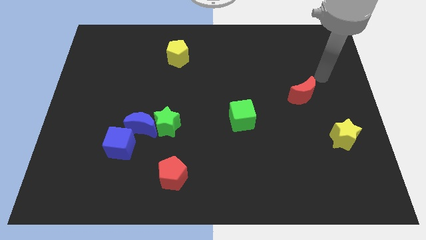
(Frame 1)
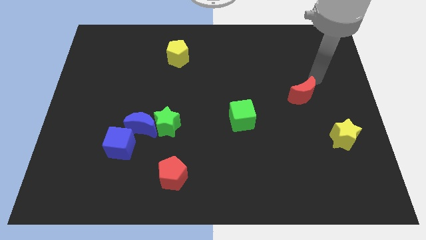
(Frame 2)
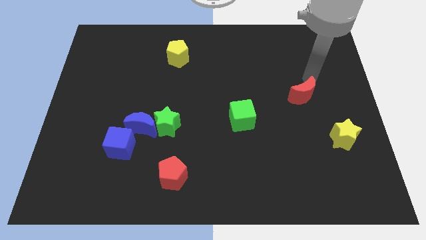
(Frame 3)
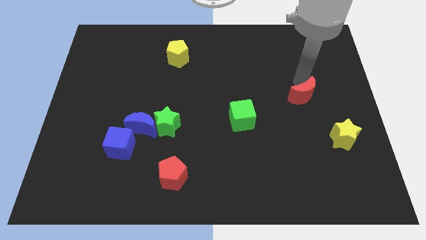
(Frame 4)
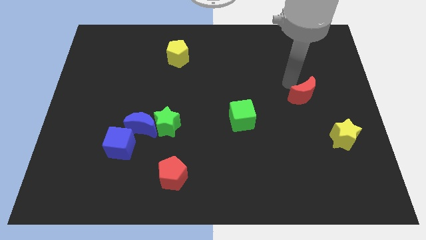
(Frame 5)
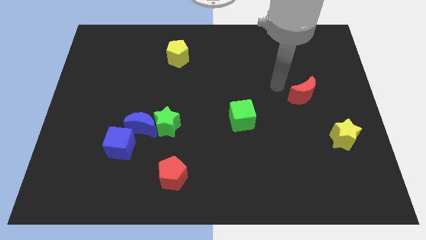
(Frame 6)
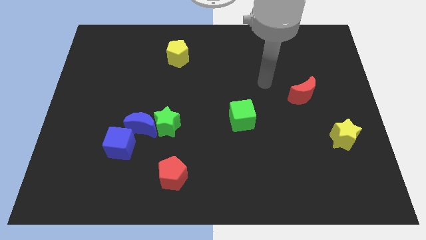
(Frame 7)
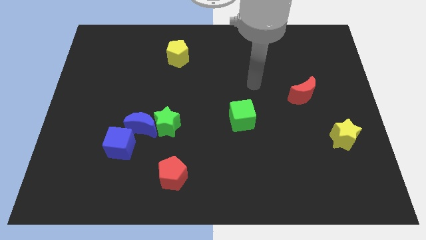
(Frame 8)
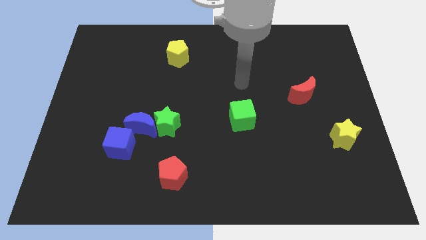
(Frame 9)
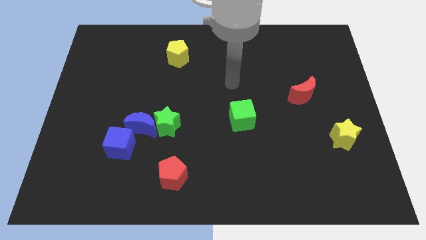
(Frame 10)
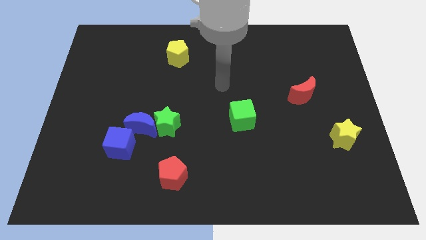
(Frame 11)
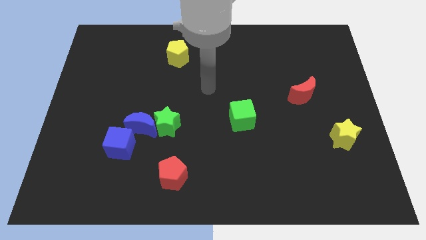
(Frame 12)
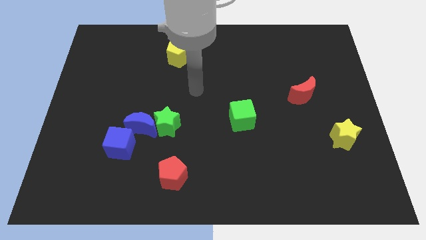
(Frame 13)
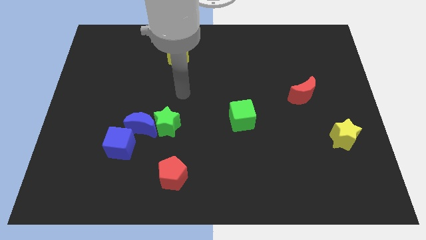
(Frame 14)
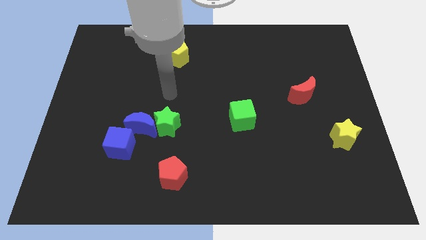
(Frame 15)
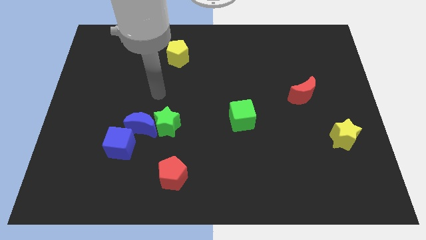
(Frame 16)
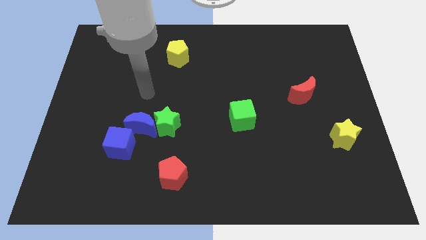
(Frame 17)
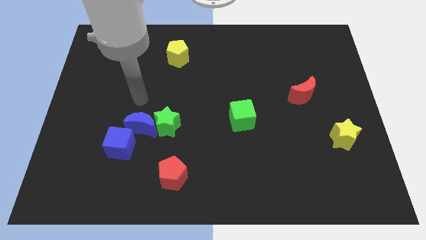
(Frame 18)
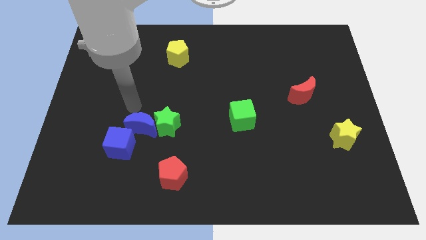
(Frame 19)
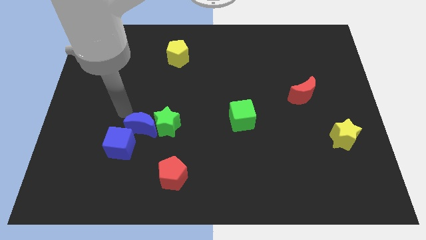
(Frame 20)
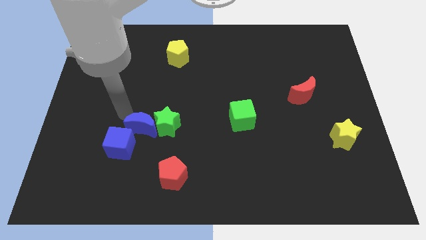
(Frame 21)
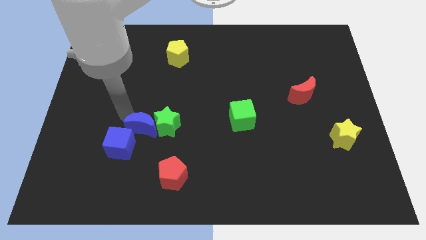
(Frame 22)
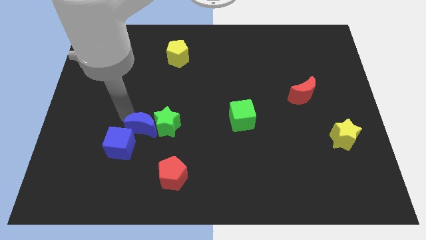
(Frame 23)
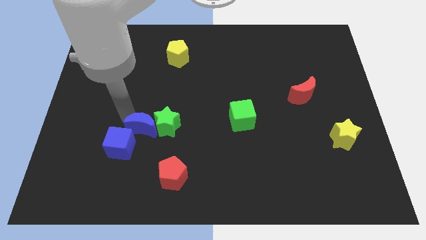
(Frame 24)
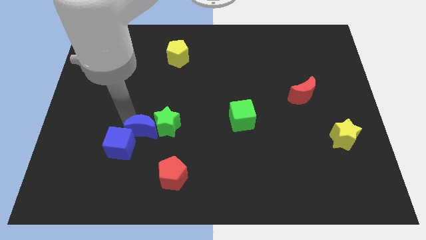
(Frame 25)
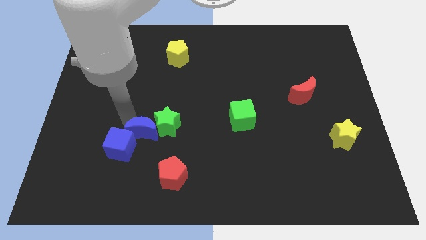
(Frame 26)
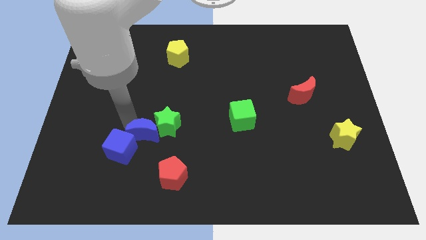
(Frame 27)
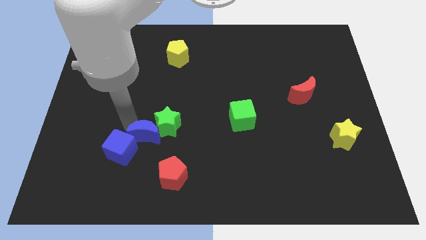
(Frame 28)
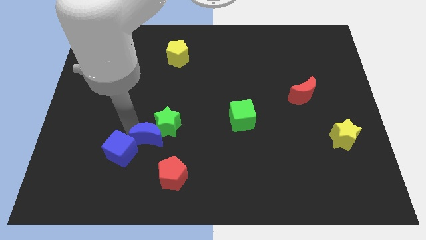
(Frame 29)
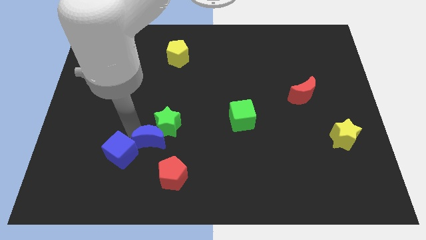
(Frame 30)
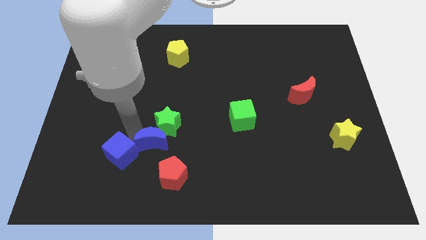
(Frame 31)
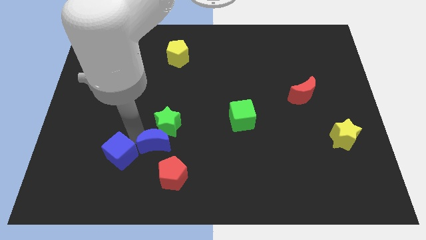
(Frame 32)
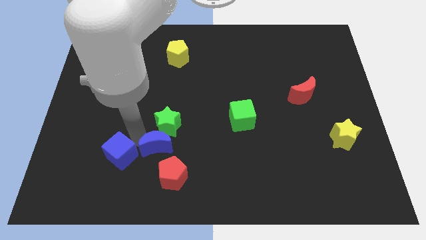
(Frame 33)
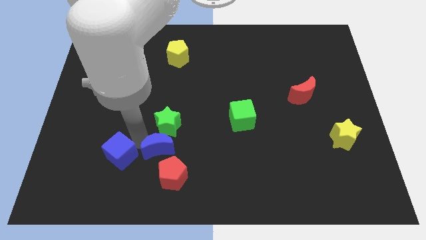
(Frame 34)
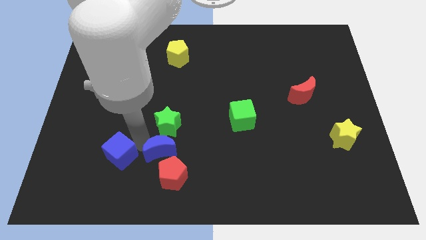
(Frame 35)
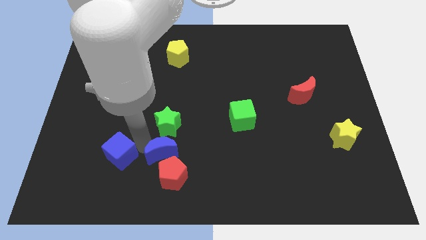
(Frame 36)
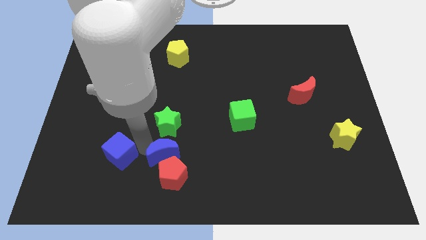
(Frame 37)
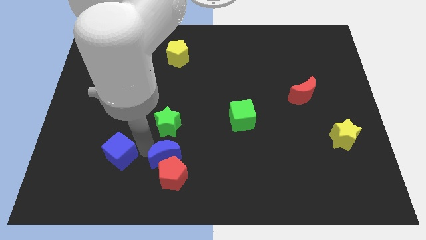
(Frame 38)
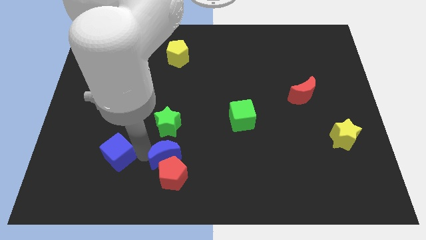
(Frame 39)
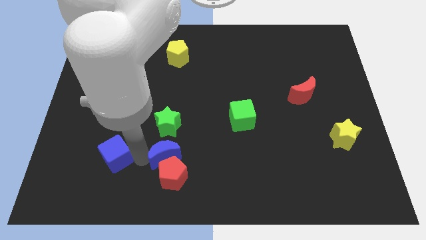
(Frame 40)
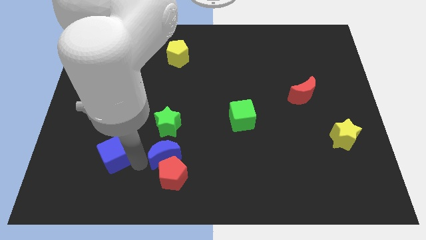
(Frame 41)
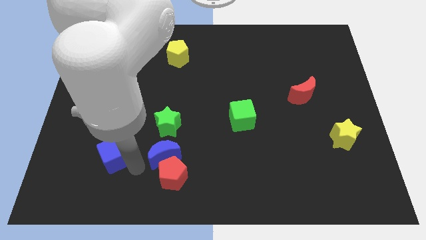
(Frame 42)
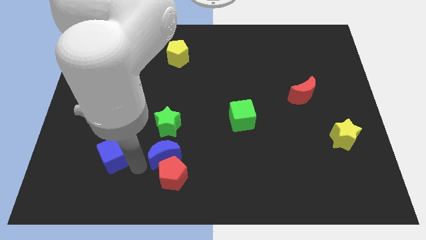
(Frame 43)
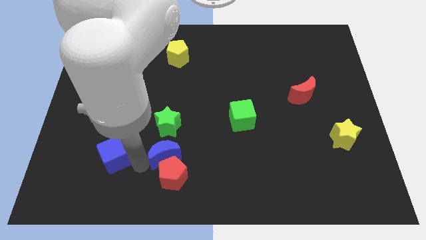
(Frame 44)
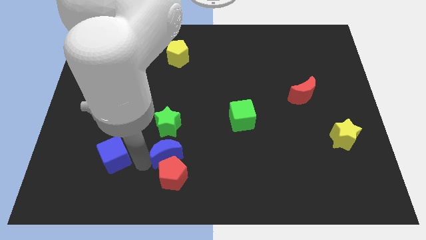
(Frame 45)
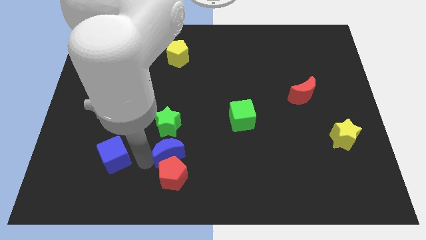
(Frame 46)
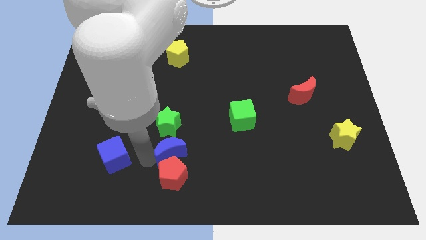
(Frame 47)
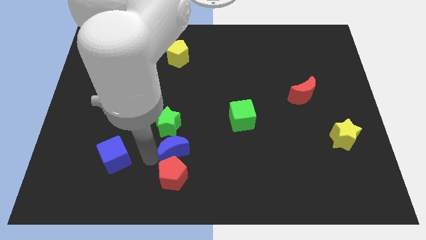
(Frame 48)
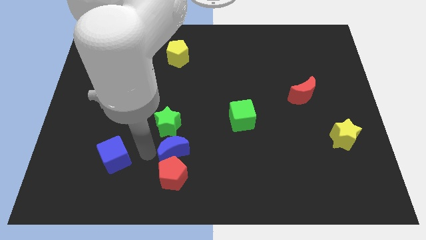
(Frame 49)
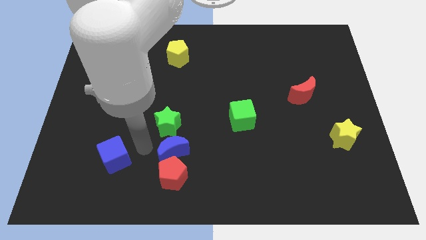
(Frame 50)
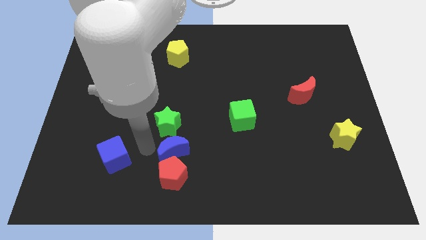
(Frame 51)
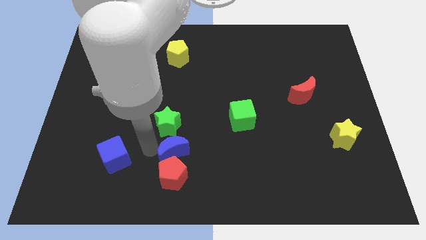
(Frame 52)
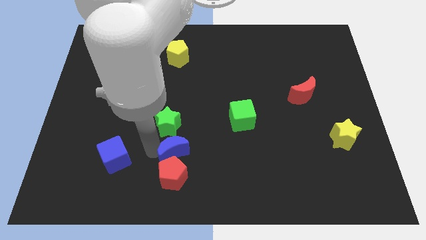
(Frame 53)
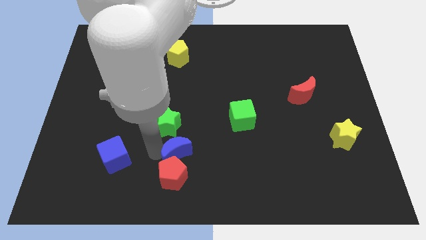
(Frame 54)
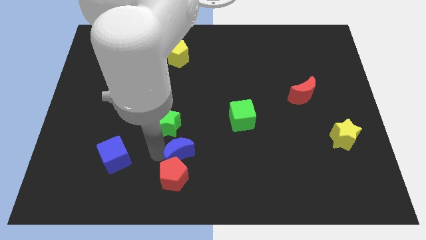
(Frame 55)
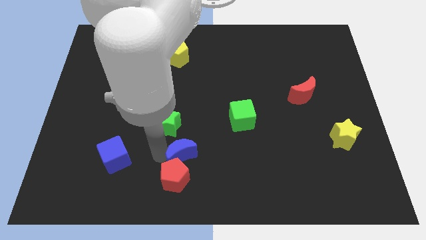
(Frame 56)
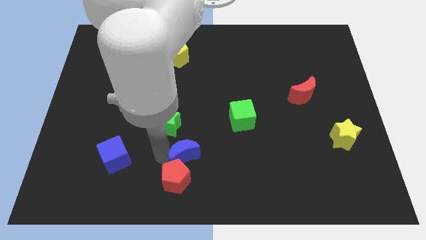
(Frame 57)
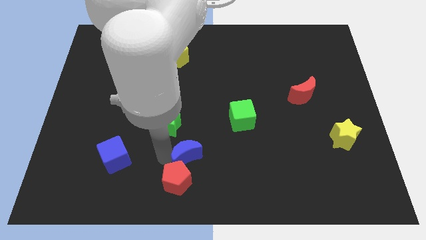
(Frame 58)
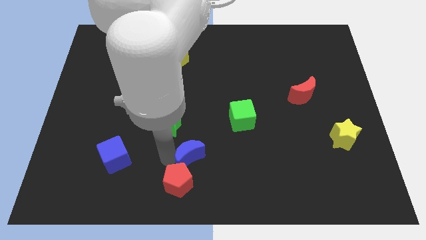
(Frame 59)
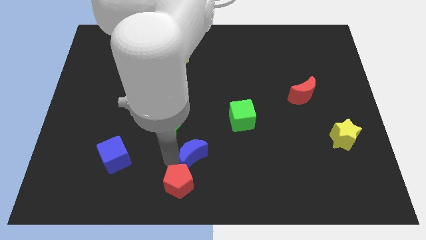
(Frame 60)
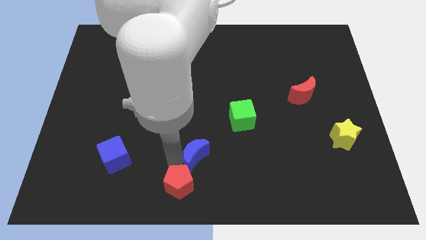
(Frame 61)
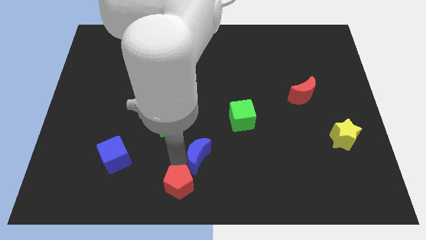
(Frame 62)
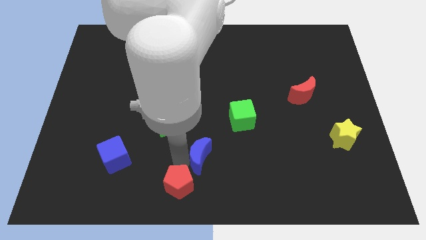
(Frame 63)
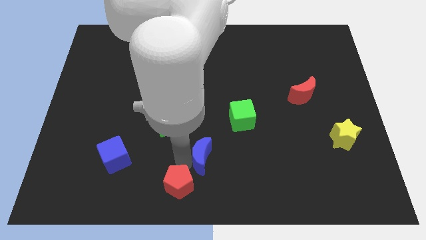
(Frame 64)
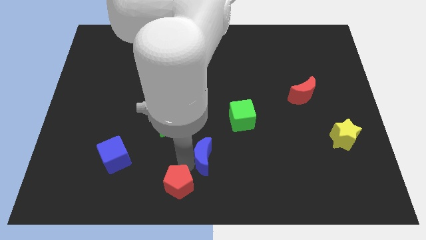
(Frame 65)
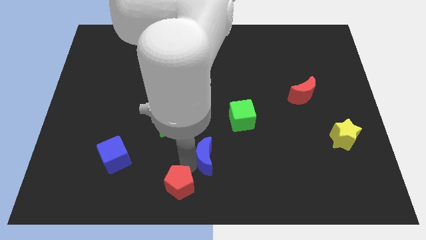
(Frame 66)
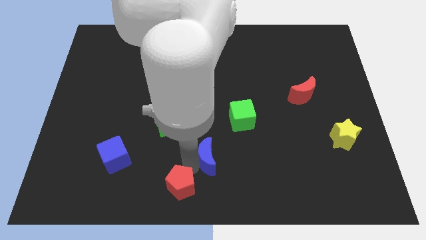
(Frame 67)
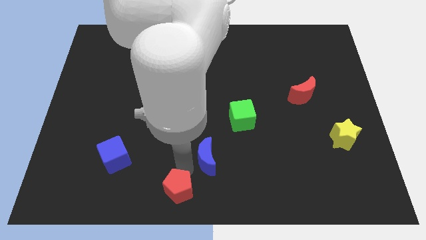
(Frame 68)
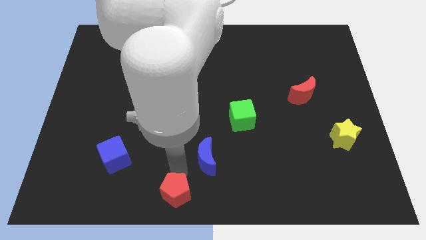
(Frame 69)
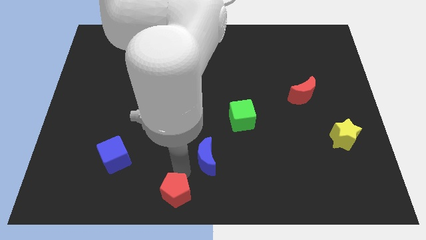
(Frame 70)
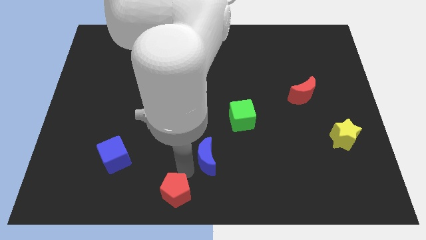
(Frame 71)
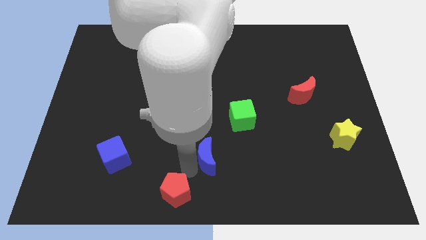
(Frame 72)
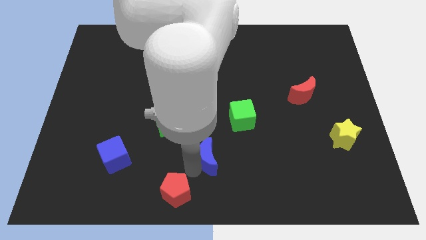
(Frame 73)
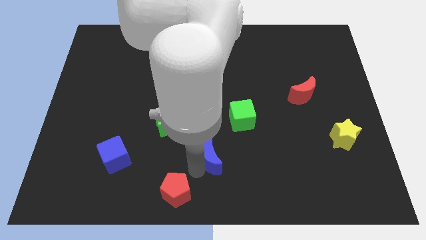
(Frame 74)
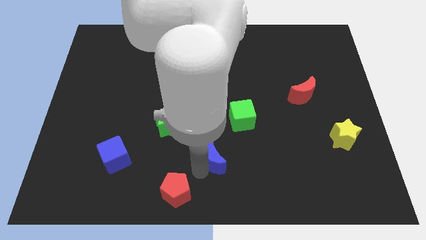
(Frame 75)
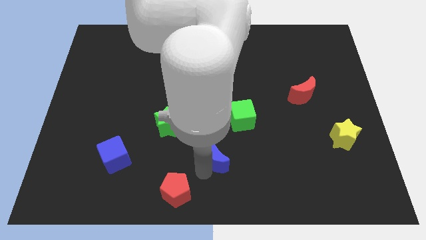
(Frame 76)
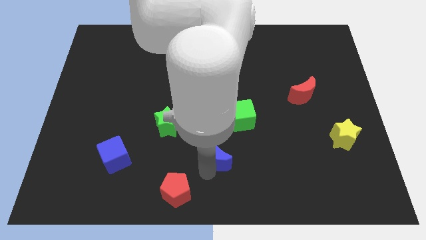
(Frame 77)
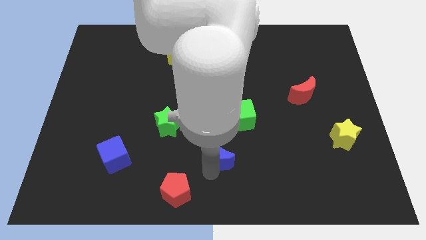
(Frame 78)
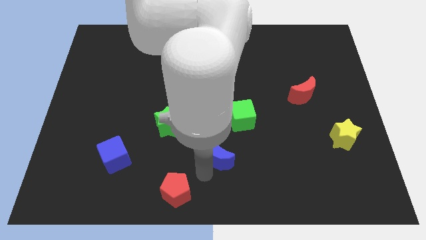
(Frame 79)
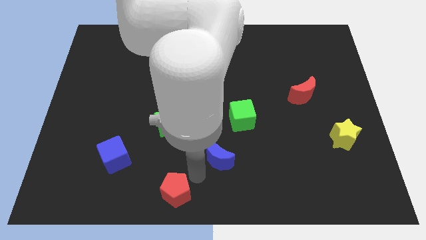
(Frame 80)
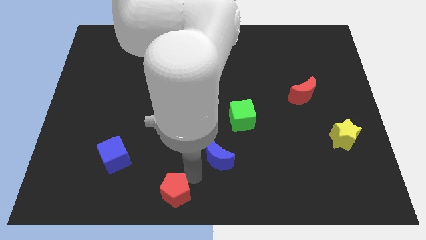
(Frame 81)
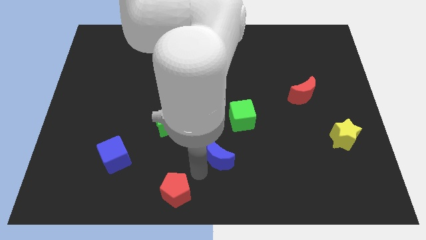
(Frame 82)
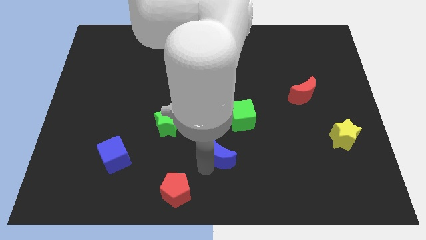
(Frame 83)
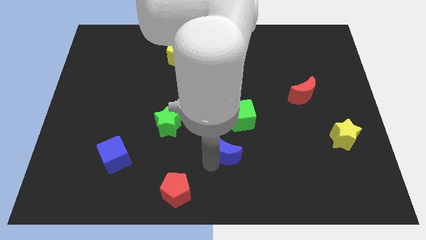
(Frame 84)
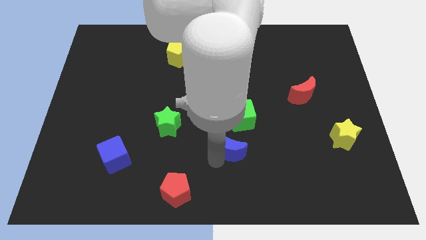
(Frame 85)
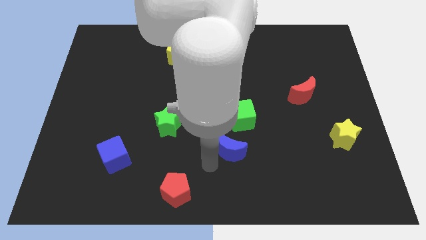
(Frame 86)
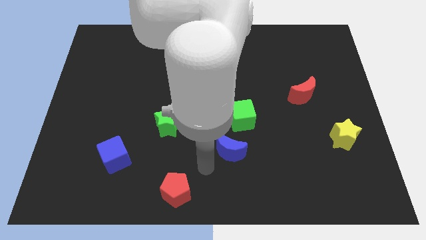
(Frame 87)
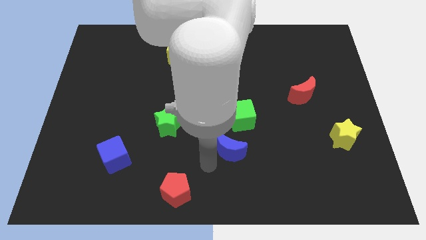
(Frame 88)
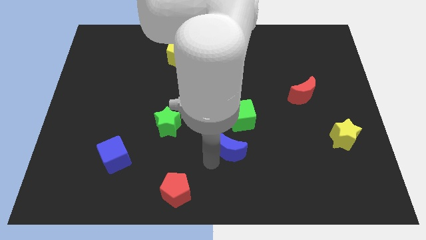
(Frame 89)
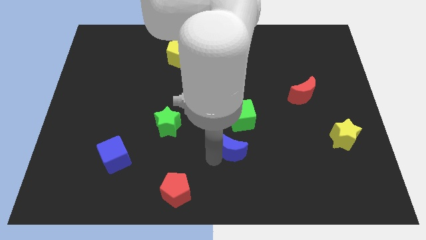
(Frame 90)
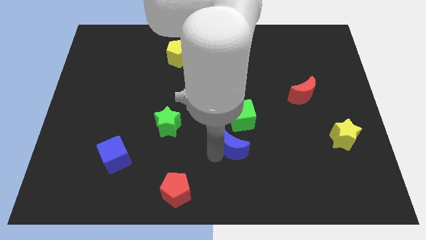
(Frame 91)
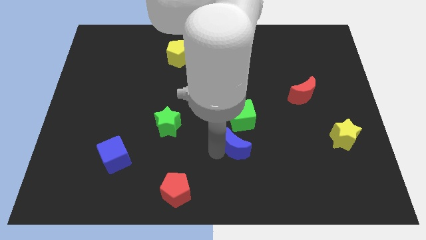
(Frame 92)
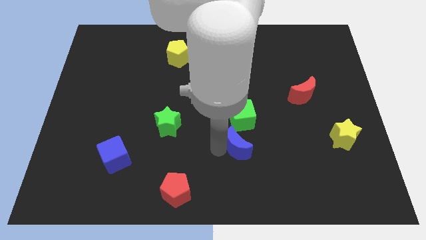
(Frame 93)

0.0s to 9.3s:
push the blue moon right
